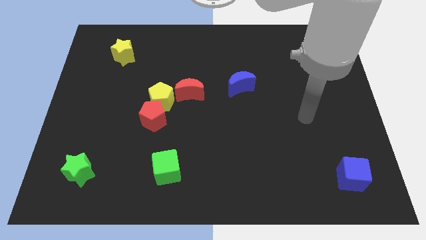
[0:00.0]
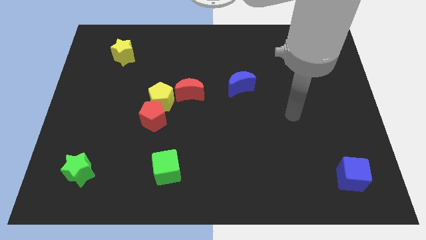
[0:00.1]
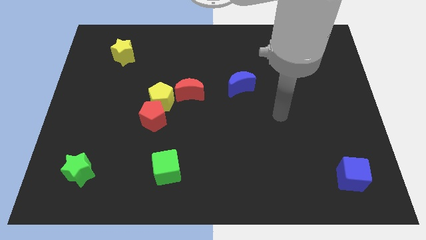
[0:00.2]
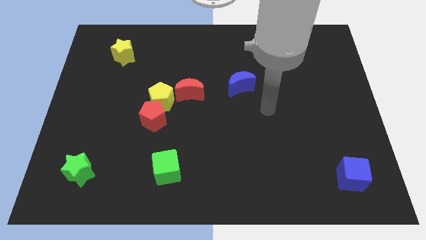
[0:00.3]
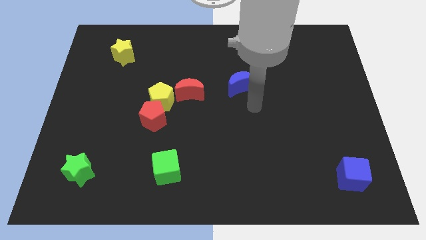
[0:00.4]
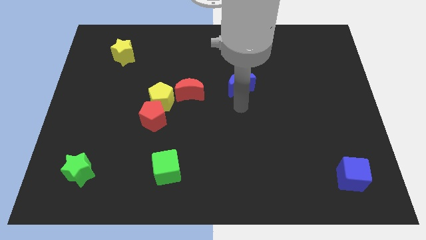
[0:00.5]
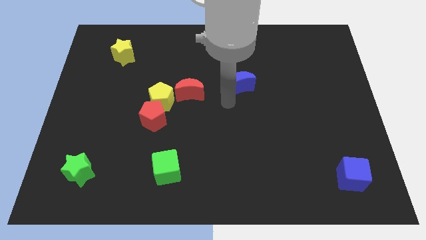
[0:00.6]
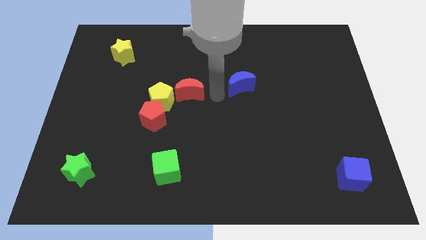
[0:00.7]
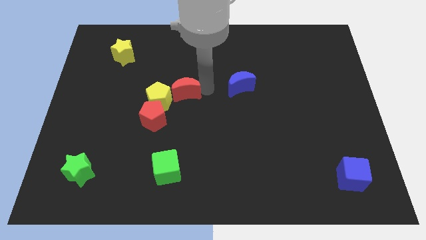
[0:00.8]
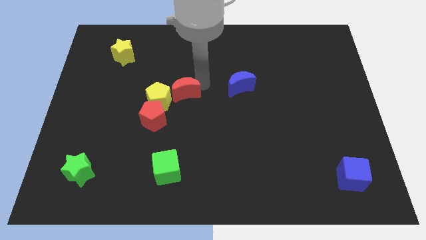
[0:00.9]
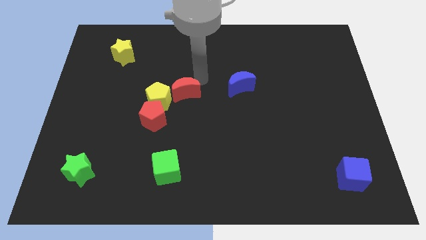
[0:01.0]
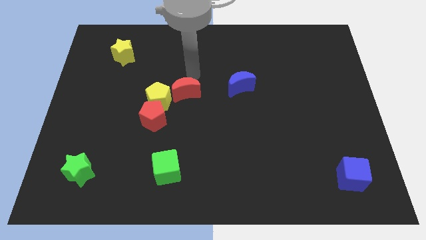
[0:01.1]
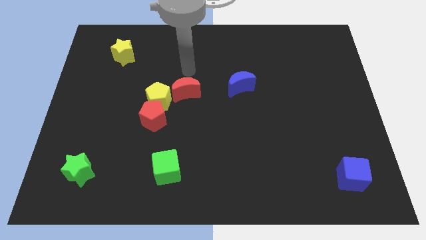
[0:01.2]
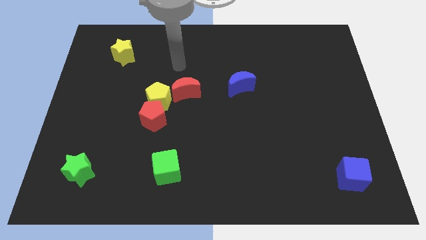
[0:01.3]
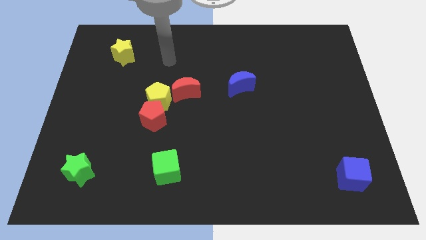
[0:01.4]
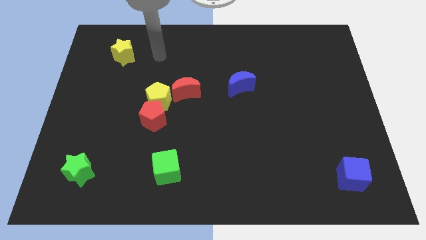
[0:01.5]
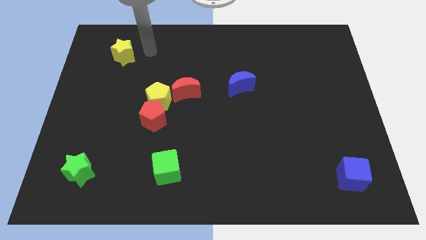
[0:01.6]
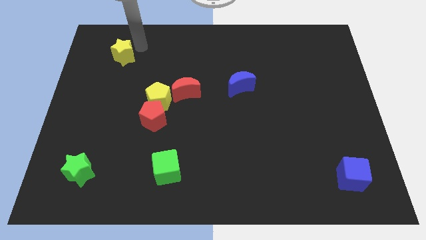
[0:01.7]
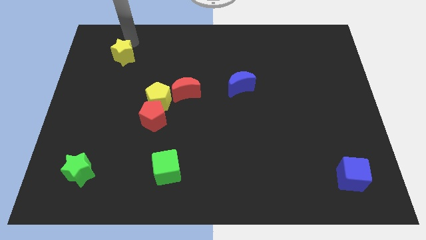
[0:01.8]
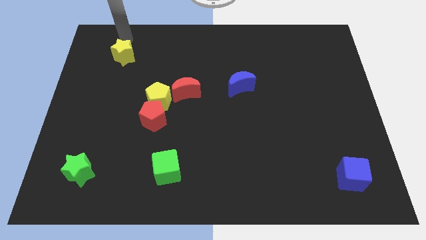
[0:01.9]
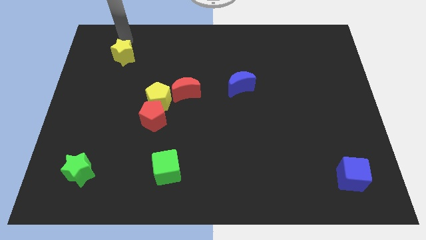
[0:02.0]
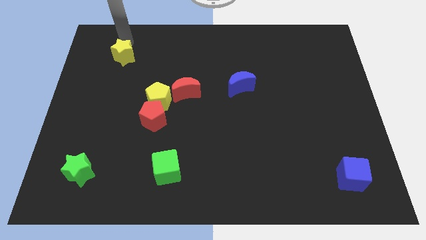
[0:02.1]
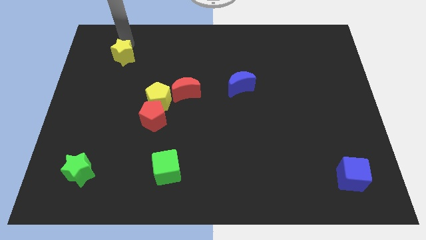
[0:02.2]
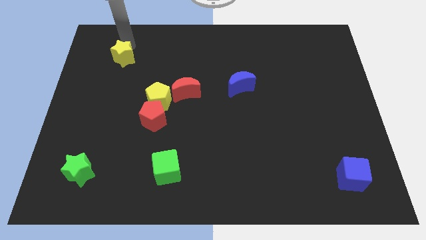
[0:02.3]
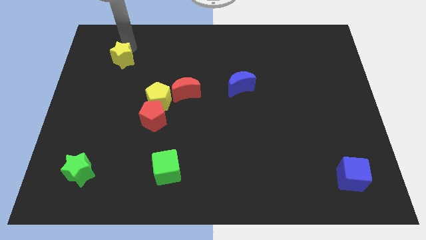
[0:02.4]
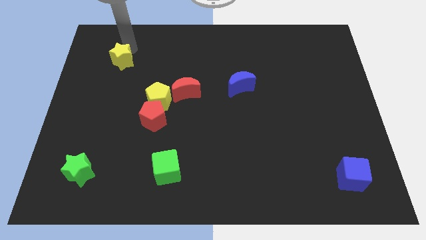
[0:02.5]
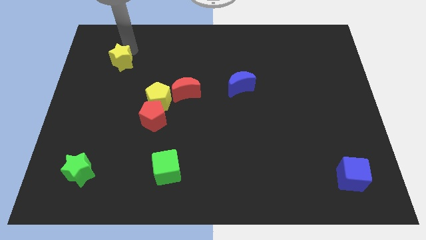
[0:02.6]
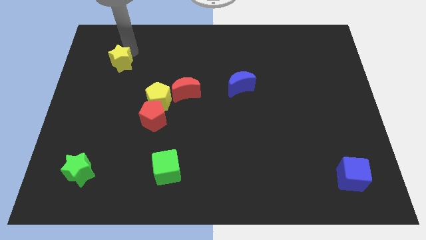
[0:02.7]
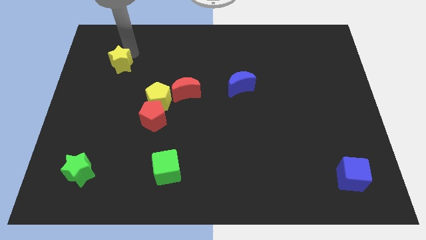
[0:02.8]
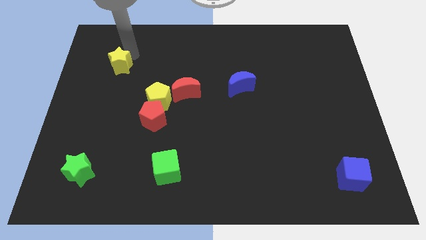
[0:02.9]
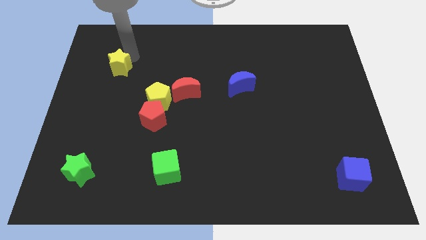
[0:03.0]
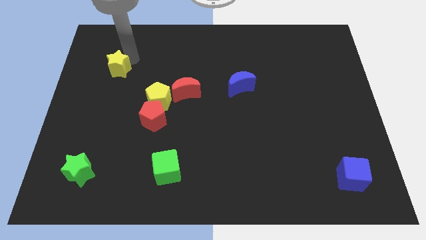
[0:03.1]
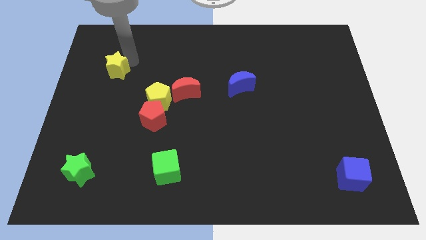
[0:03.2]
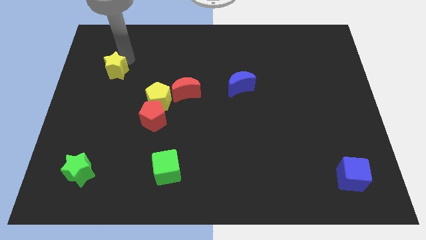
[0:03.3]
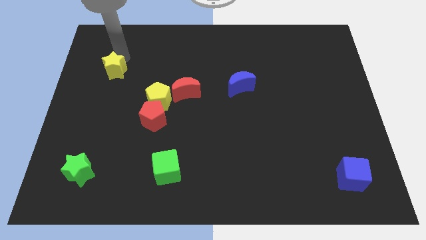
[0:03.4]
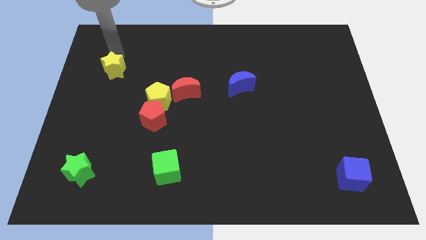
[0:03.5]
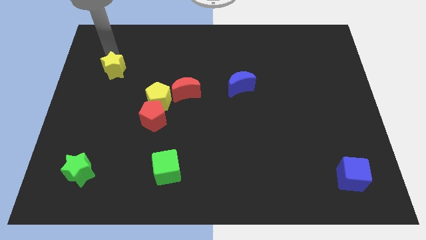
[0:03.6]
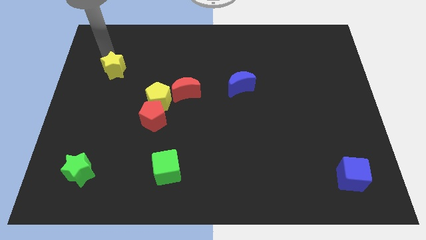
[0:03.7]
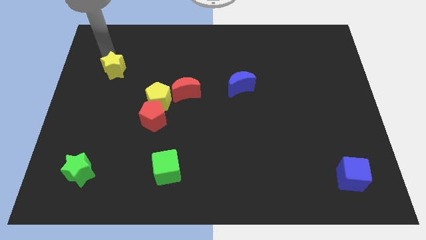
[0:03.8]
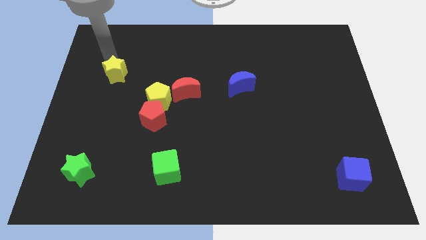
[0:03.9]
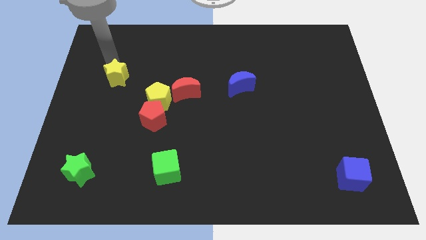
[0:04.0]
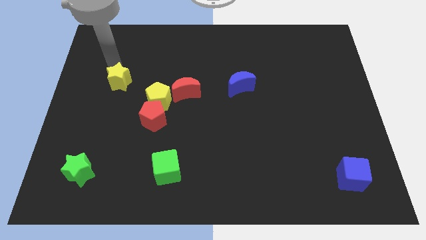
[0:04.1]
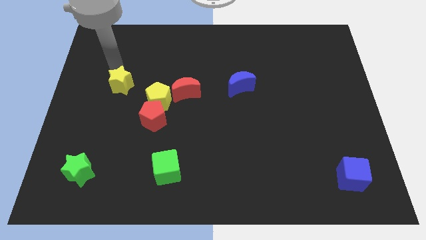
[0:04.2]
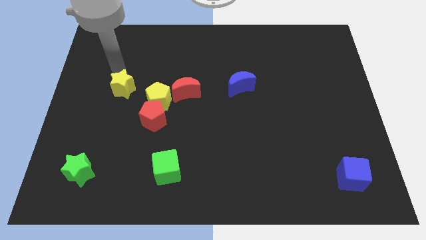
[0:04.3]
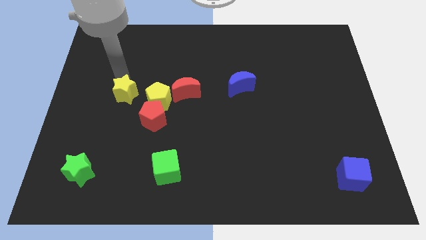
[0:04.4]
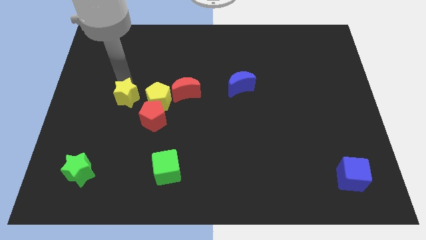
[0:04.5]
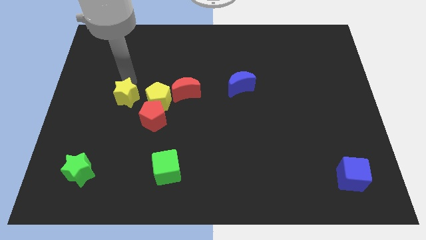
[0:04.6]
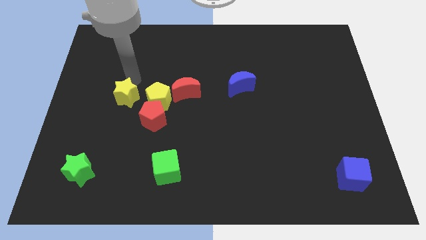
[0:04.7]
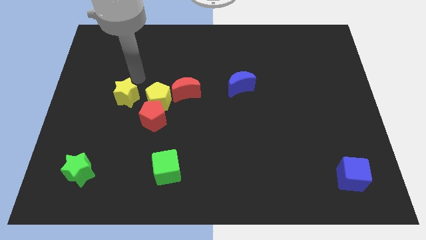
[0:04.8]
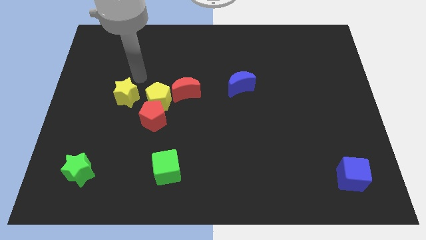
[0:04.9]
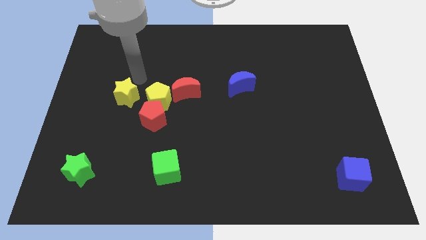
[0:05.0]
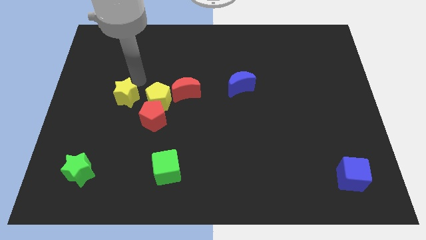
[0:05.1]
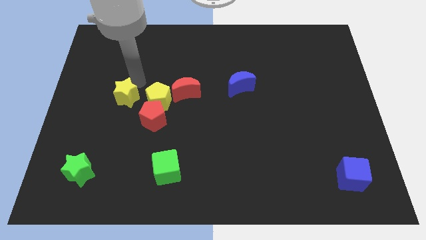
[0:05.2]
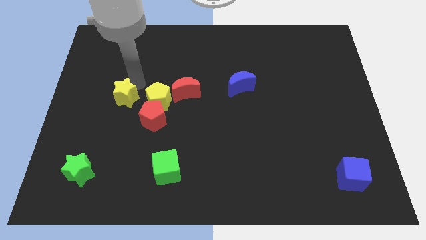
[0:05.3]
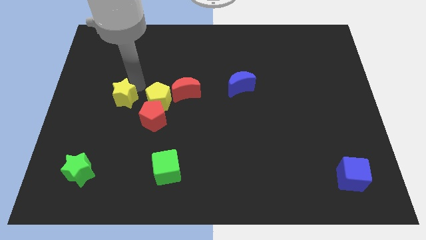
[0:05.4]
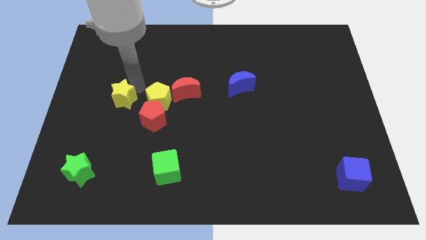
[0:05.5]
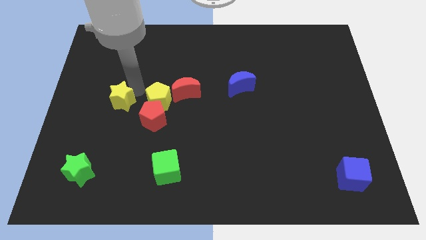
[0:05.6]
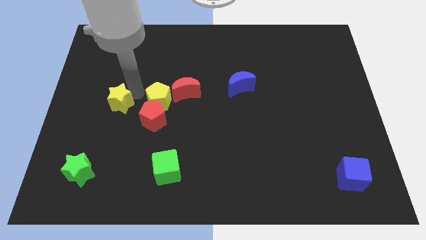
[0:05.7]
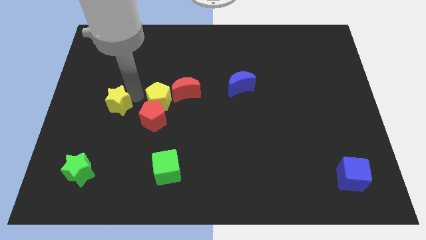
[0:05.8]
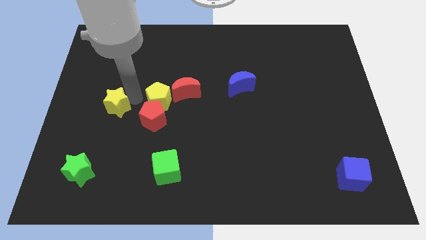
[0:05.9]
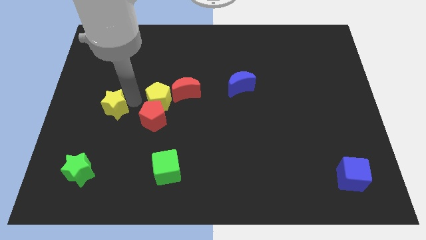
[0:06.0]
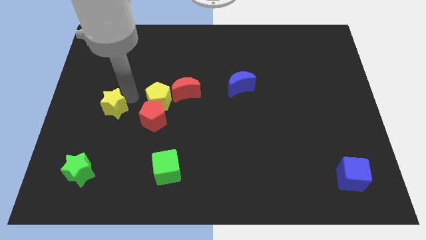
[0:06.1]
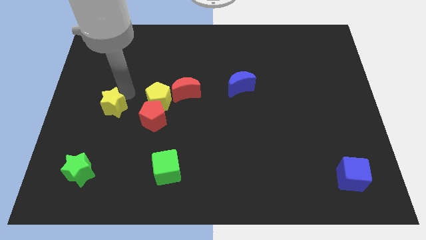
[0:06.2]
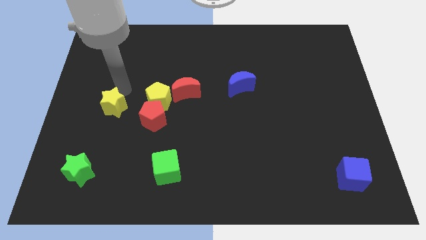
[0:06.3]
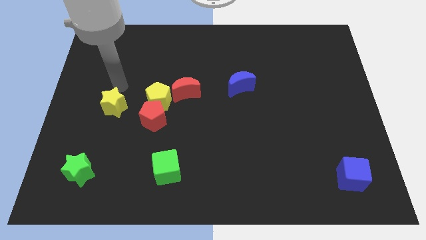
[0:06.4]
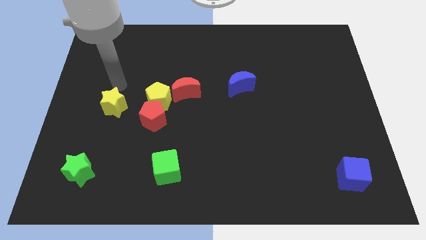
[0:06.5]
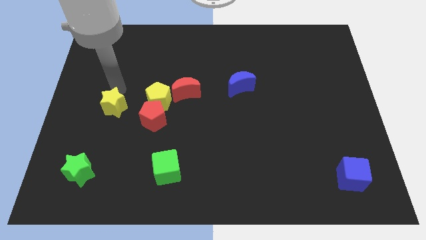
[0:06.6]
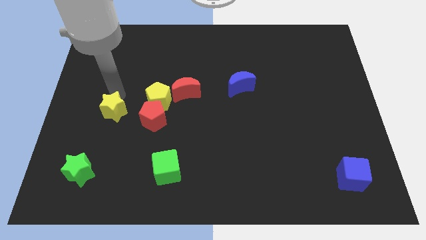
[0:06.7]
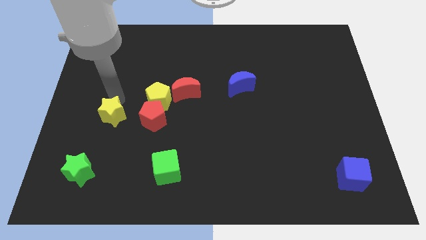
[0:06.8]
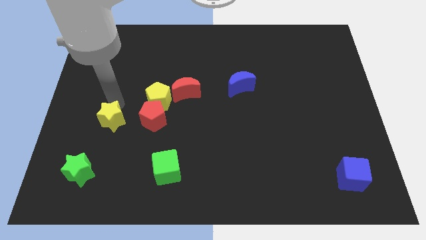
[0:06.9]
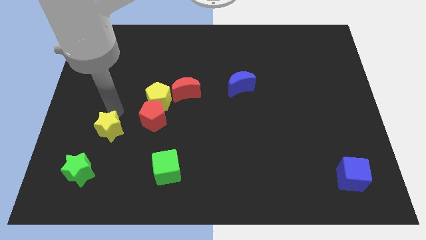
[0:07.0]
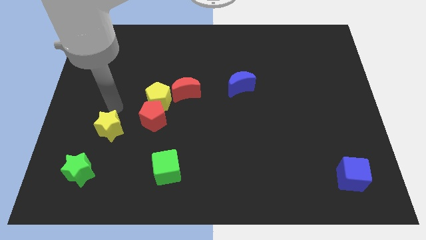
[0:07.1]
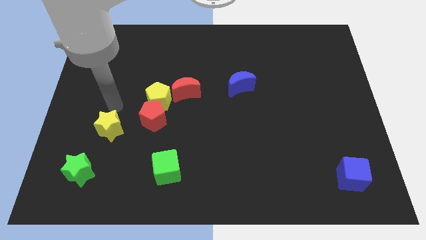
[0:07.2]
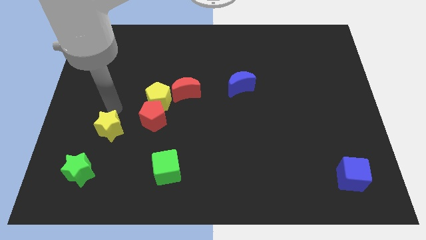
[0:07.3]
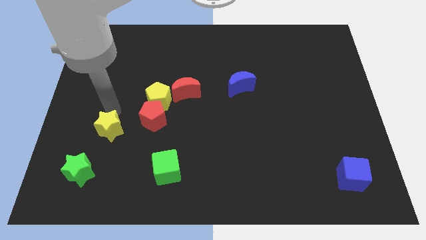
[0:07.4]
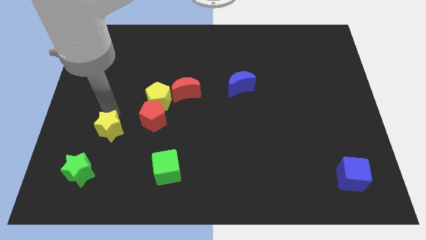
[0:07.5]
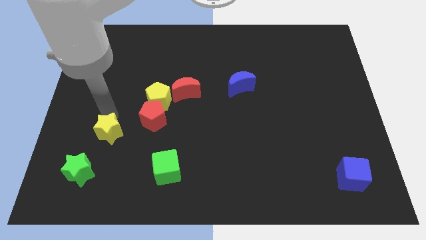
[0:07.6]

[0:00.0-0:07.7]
slide the yellow star to the top right of the green star
